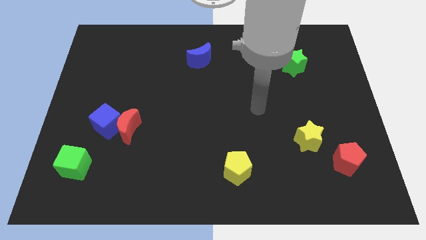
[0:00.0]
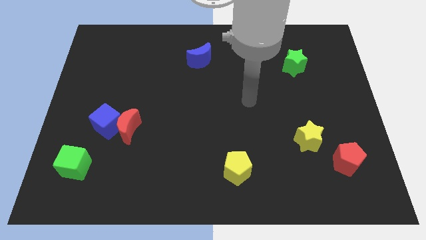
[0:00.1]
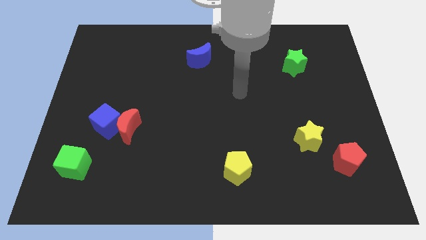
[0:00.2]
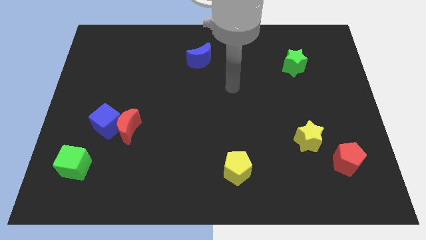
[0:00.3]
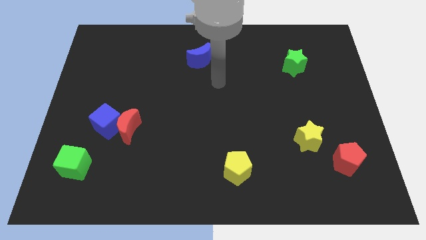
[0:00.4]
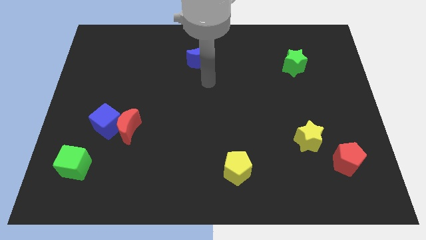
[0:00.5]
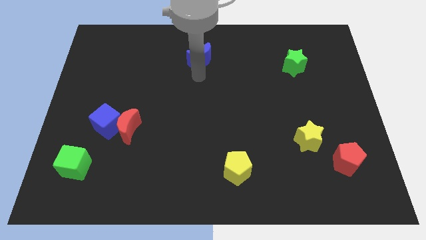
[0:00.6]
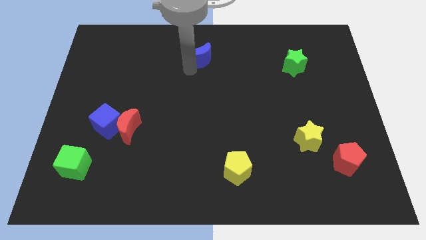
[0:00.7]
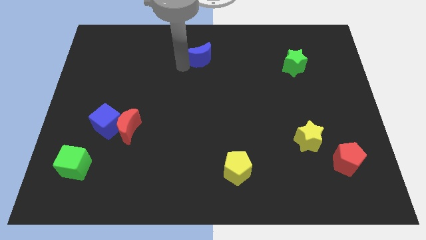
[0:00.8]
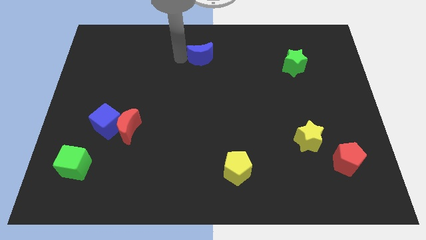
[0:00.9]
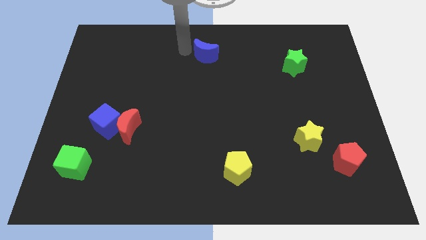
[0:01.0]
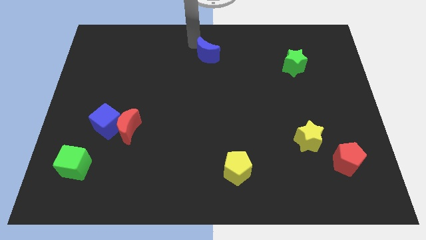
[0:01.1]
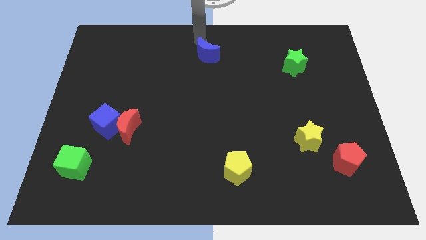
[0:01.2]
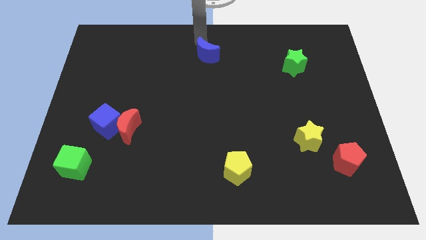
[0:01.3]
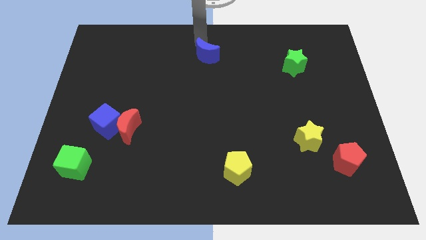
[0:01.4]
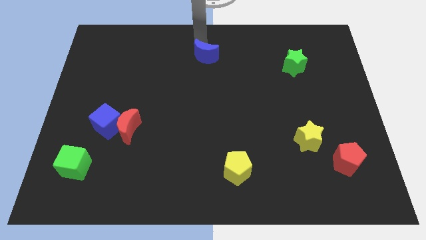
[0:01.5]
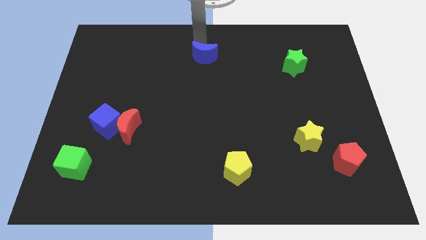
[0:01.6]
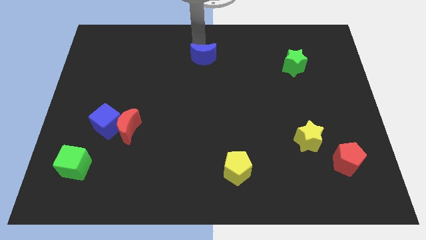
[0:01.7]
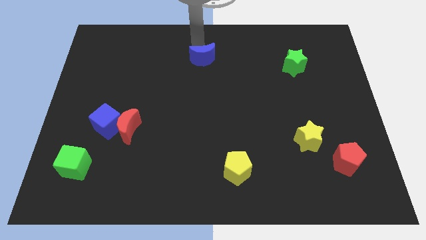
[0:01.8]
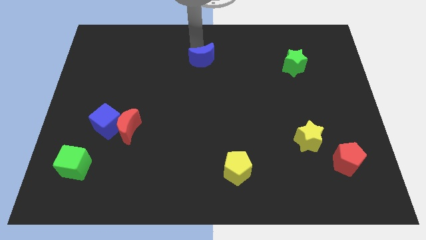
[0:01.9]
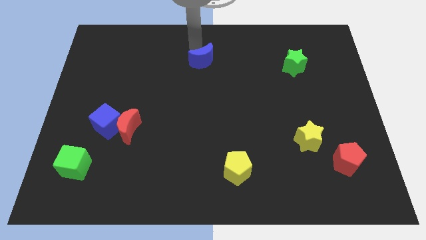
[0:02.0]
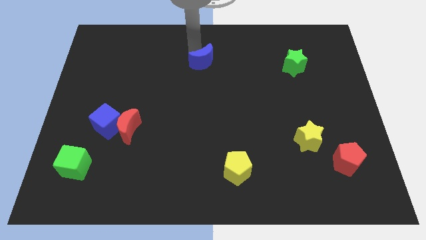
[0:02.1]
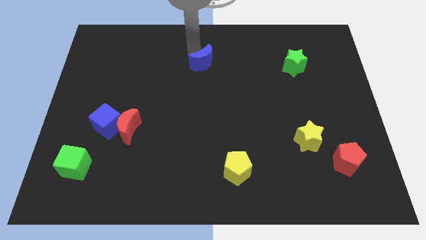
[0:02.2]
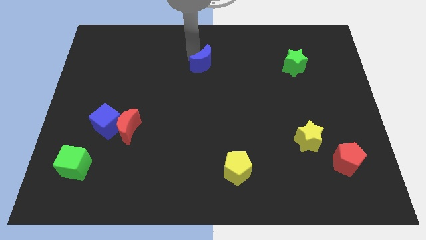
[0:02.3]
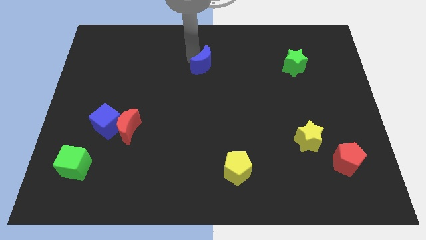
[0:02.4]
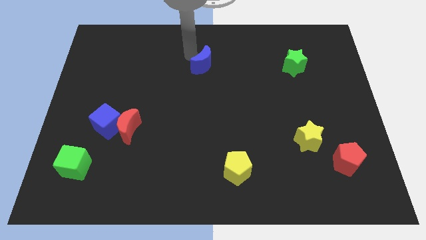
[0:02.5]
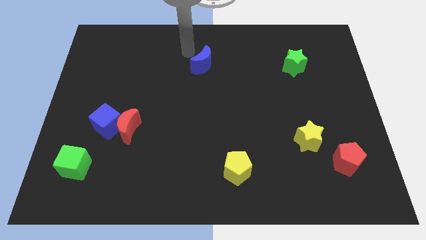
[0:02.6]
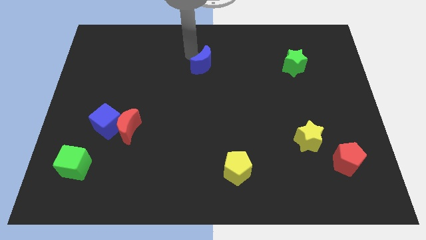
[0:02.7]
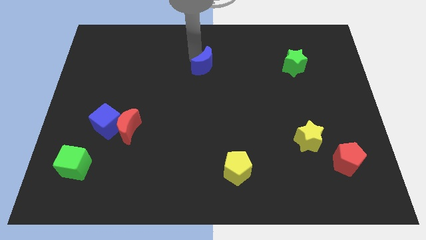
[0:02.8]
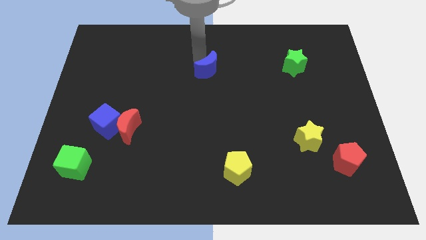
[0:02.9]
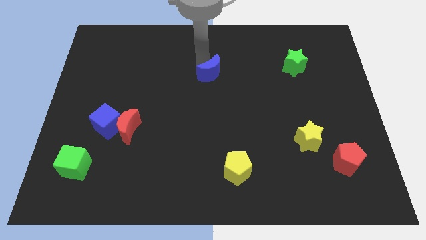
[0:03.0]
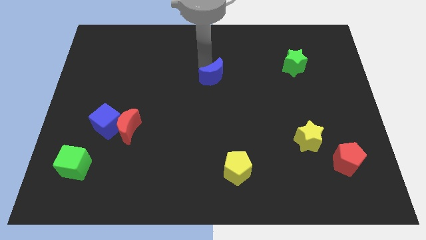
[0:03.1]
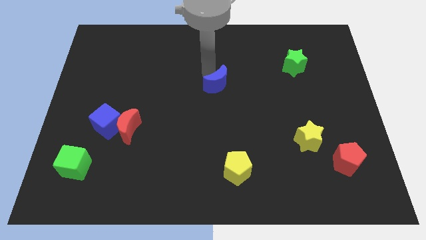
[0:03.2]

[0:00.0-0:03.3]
move the blue moon a bit downwards and right diagonally

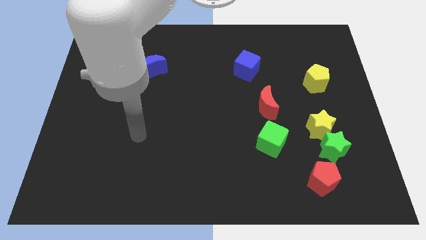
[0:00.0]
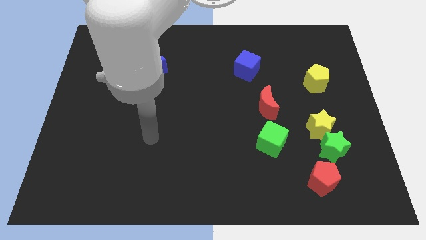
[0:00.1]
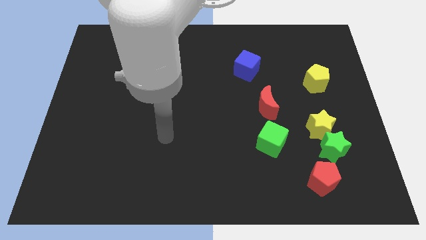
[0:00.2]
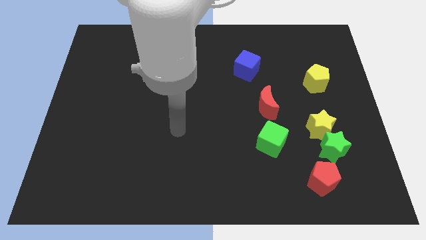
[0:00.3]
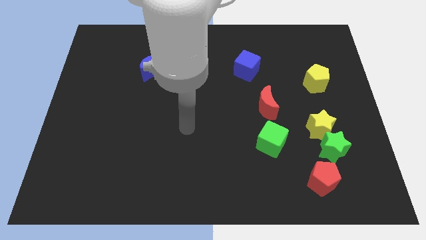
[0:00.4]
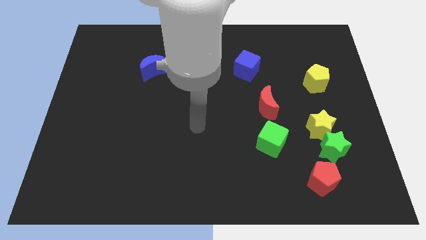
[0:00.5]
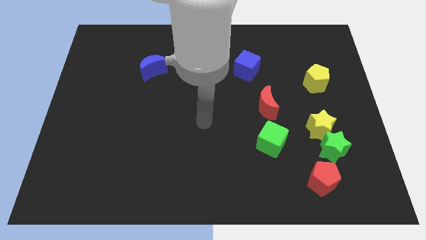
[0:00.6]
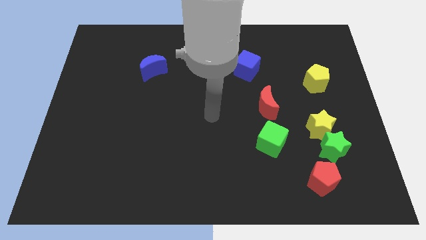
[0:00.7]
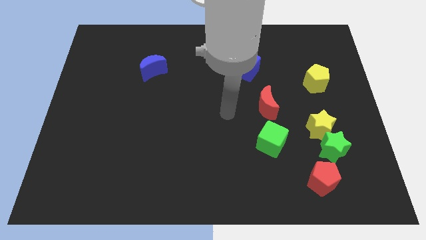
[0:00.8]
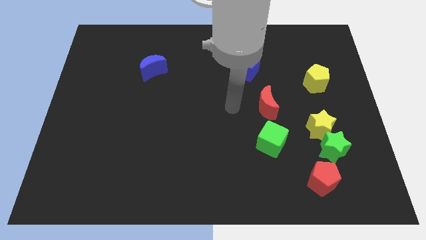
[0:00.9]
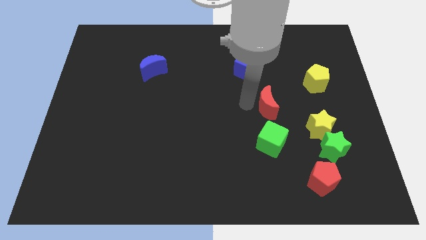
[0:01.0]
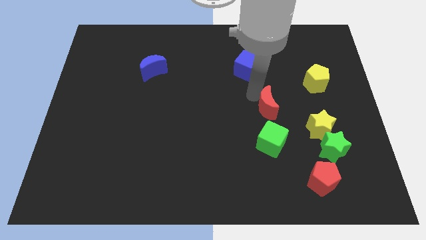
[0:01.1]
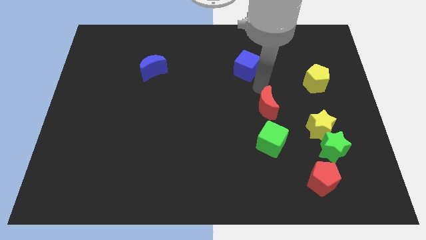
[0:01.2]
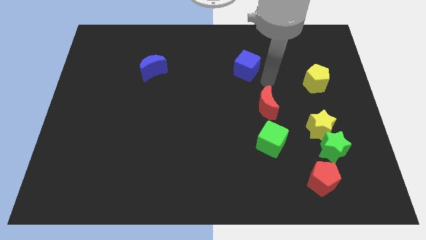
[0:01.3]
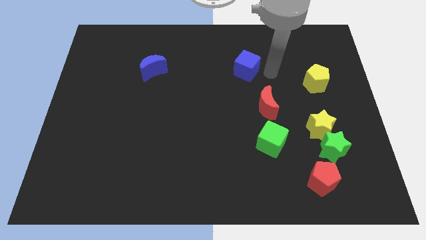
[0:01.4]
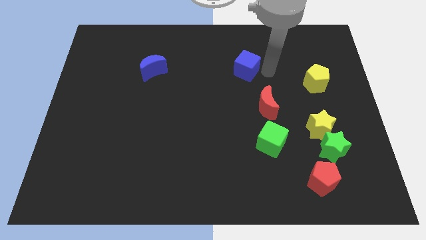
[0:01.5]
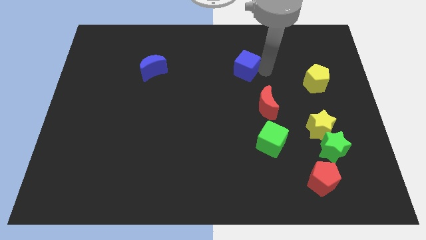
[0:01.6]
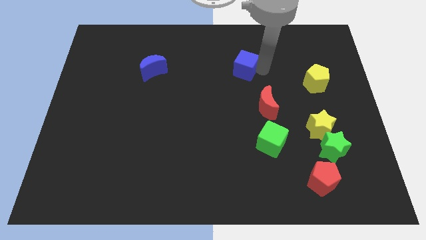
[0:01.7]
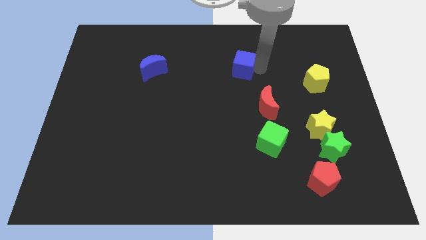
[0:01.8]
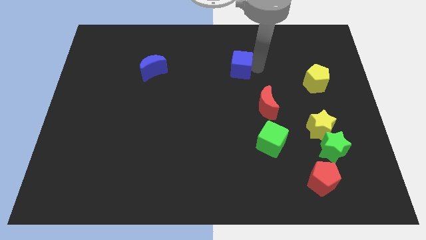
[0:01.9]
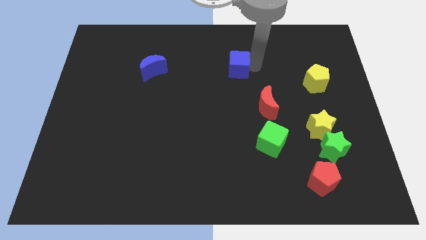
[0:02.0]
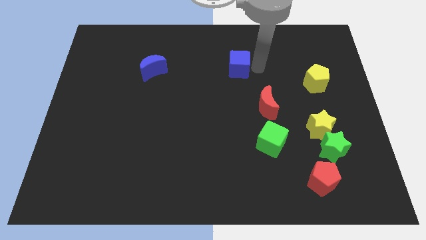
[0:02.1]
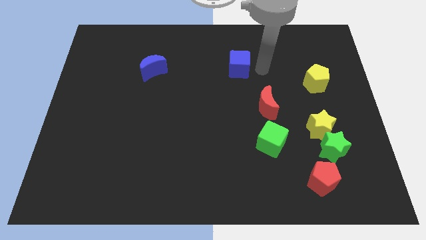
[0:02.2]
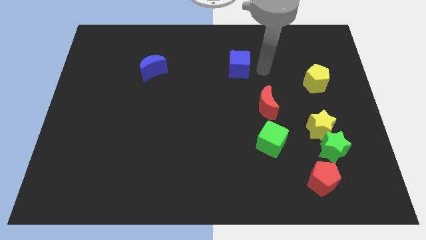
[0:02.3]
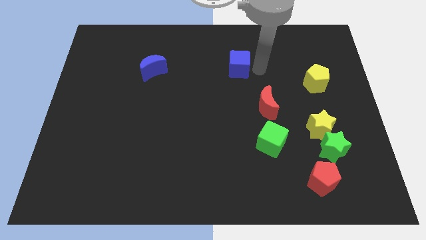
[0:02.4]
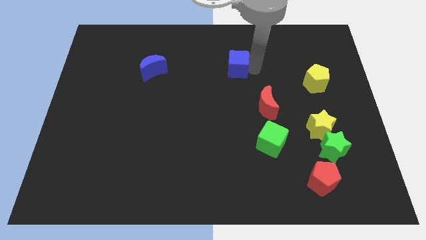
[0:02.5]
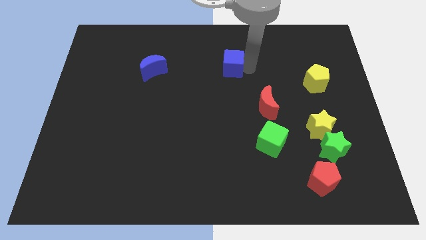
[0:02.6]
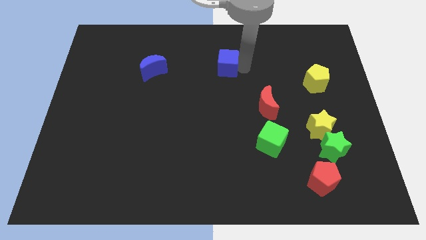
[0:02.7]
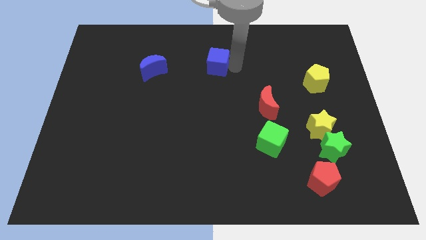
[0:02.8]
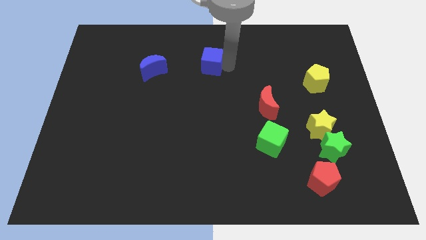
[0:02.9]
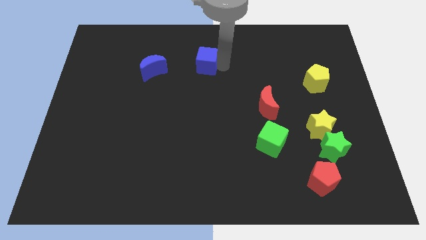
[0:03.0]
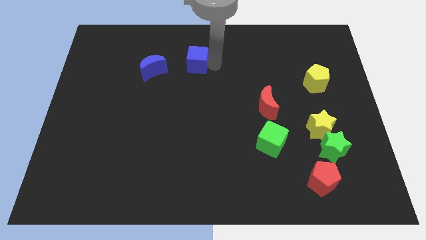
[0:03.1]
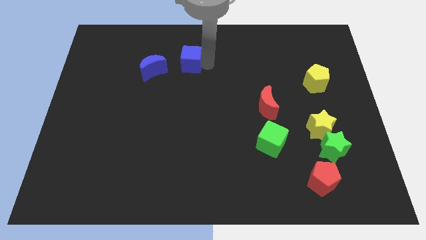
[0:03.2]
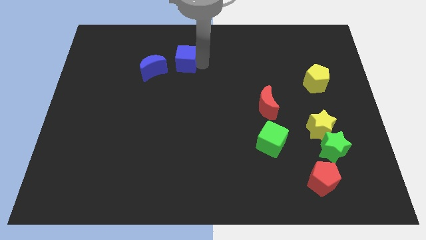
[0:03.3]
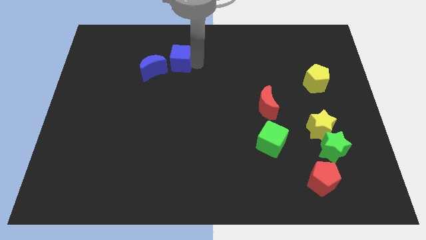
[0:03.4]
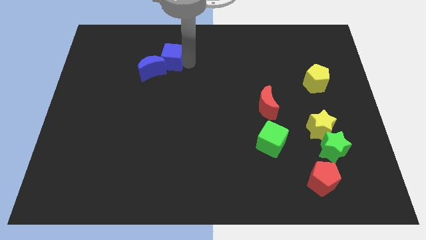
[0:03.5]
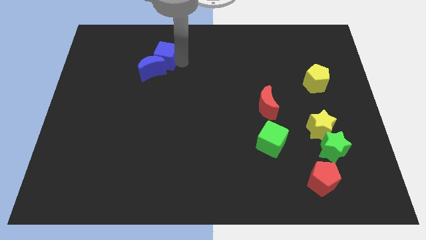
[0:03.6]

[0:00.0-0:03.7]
push the blue cube left

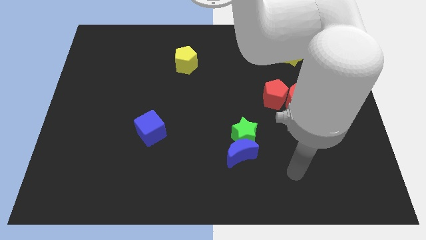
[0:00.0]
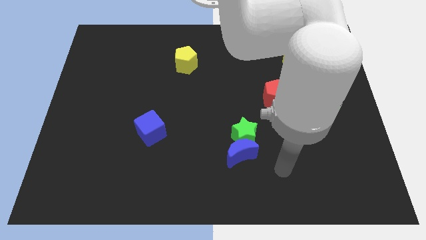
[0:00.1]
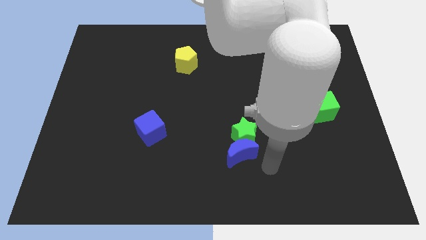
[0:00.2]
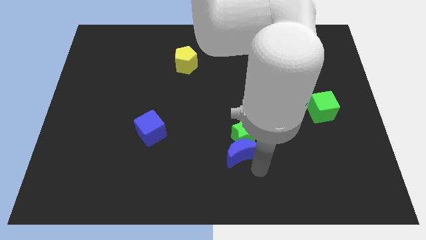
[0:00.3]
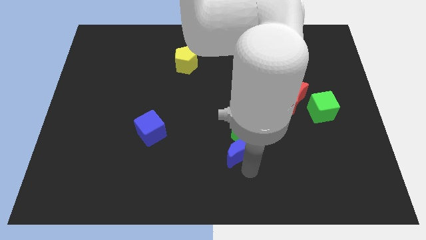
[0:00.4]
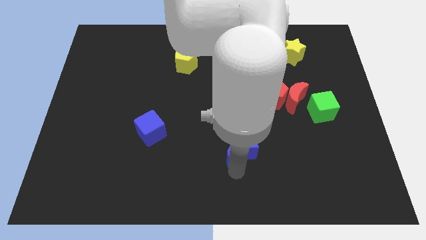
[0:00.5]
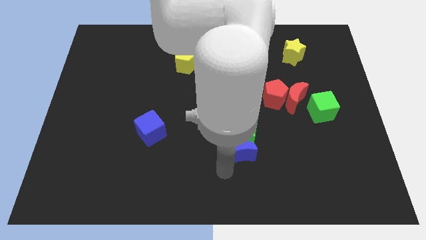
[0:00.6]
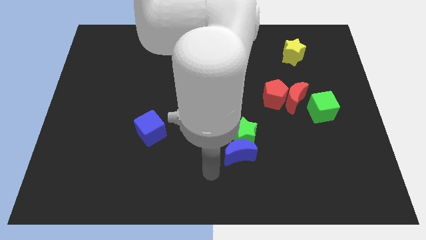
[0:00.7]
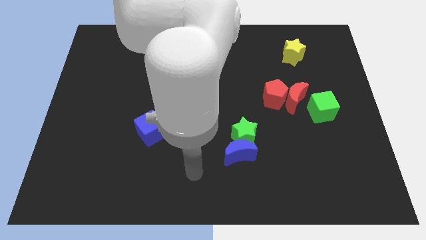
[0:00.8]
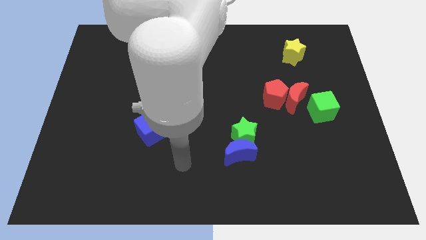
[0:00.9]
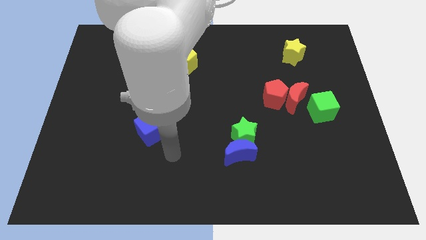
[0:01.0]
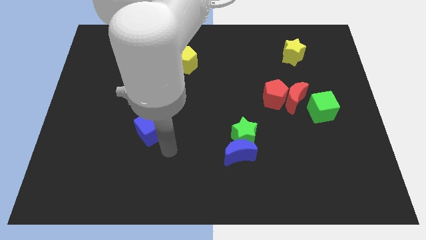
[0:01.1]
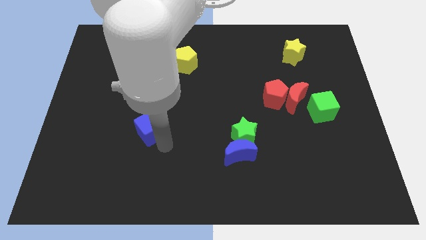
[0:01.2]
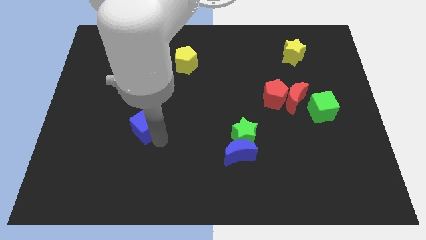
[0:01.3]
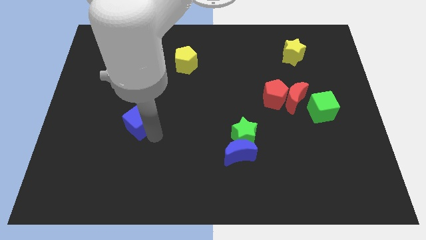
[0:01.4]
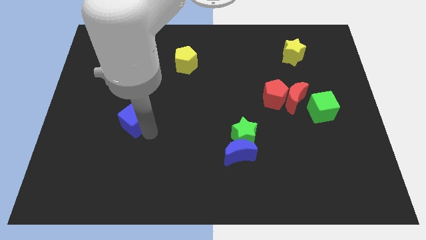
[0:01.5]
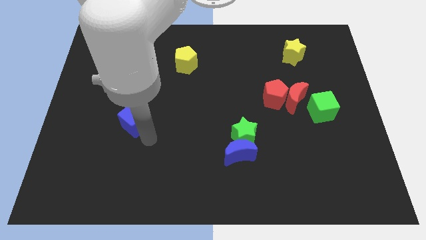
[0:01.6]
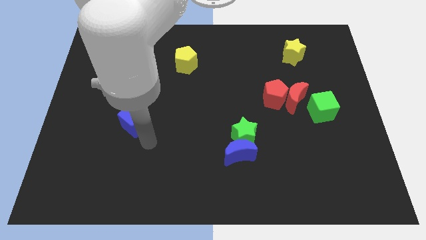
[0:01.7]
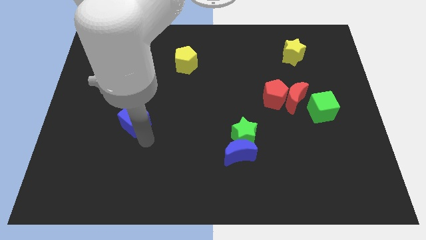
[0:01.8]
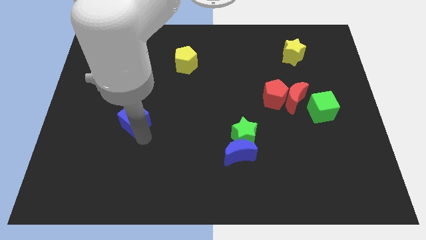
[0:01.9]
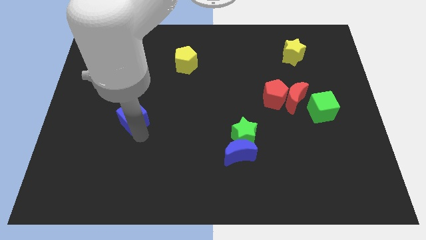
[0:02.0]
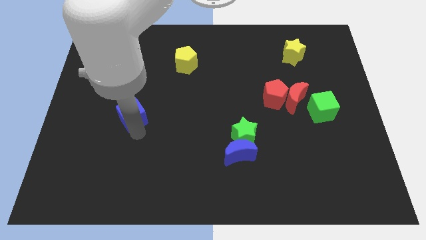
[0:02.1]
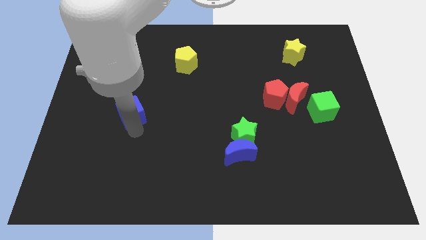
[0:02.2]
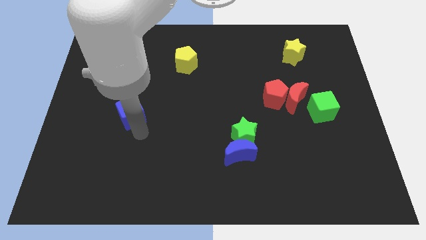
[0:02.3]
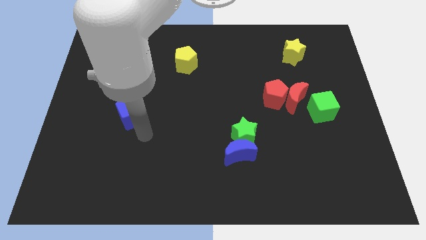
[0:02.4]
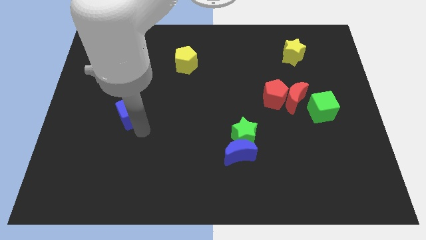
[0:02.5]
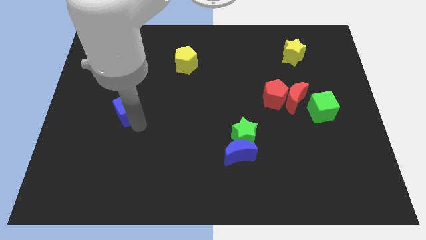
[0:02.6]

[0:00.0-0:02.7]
slide the blue cube a little bit up and to the left
